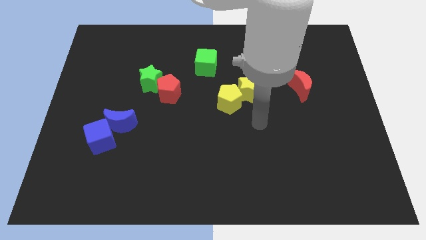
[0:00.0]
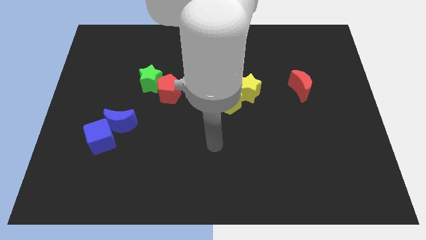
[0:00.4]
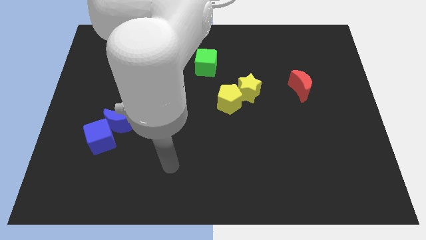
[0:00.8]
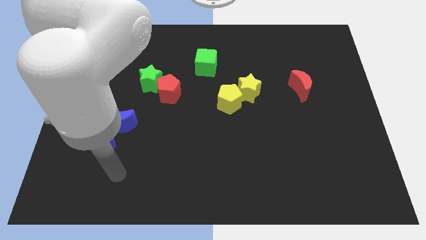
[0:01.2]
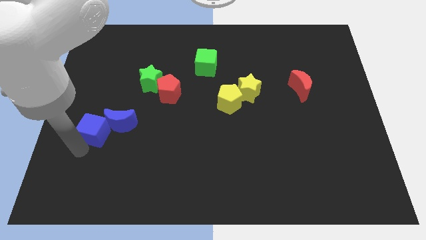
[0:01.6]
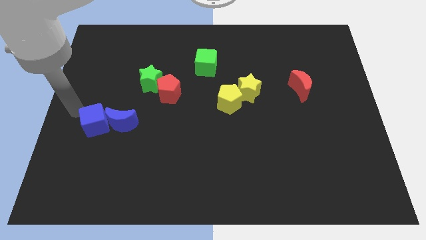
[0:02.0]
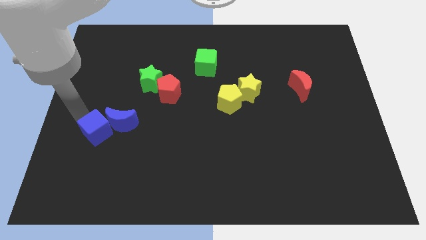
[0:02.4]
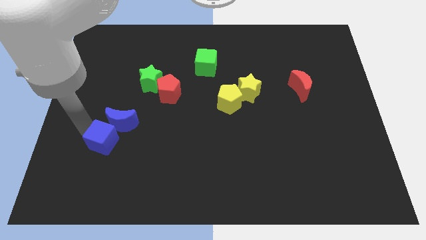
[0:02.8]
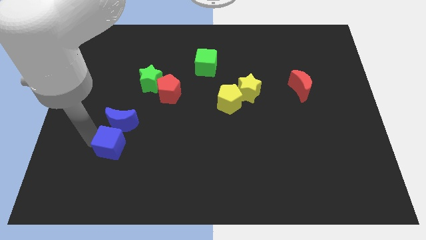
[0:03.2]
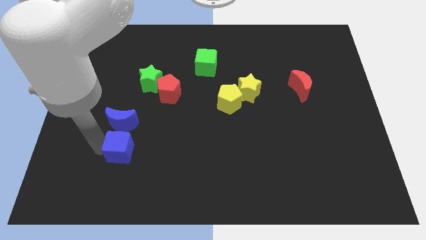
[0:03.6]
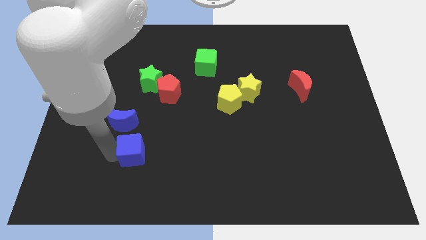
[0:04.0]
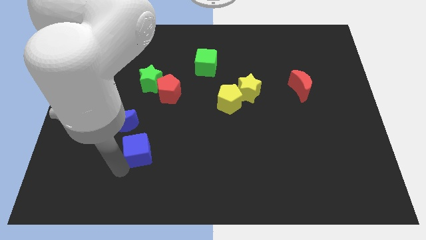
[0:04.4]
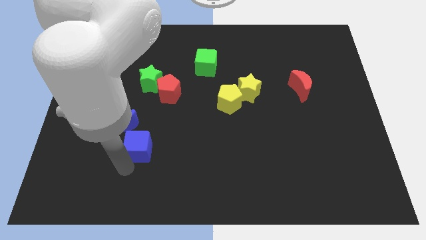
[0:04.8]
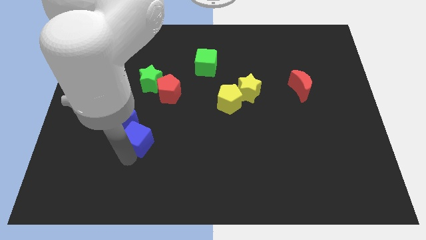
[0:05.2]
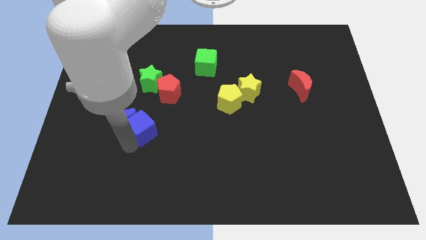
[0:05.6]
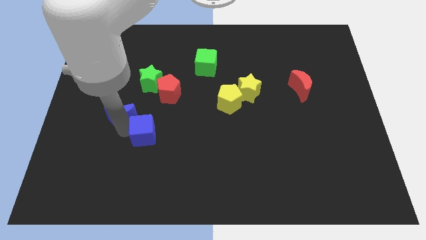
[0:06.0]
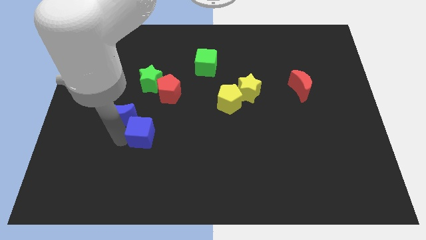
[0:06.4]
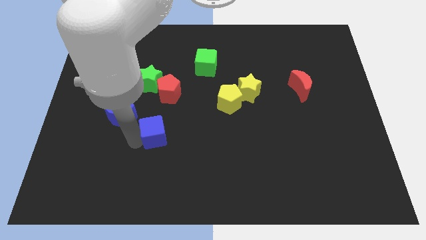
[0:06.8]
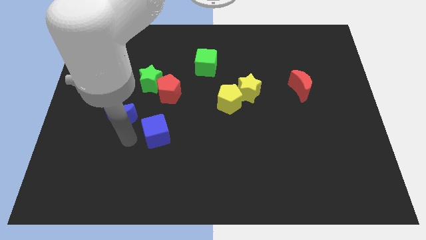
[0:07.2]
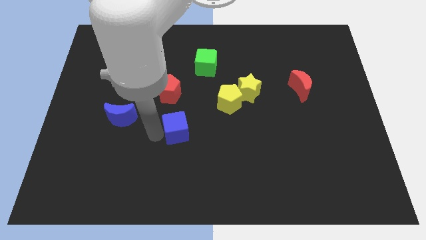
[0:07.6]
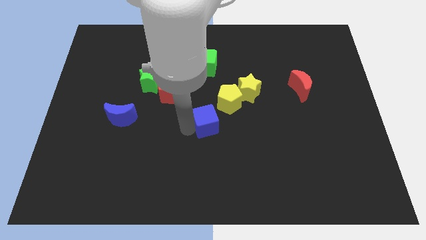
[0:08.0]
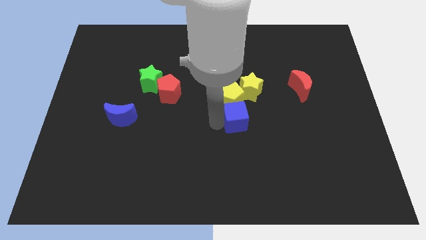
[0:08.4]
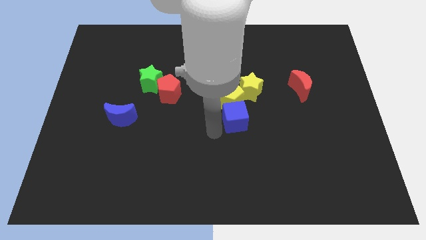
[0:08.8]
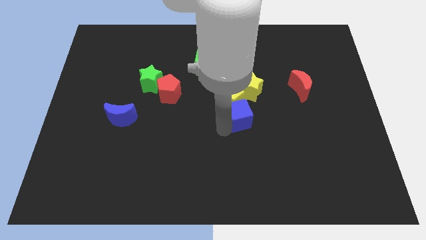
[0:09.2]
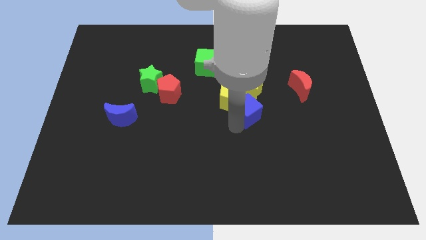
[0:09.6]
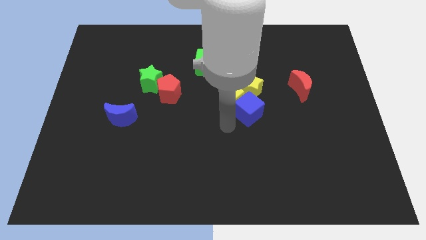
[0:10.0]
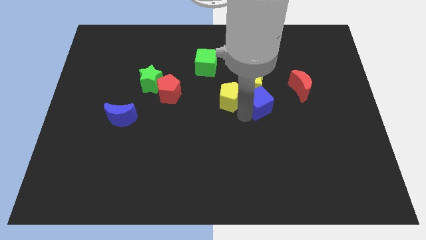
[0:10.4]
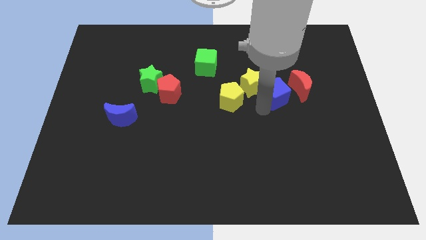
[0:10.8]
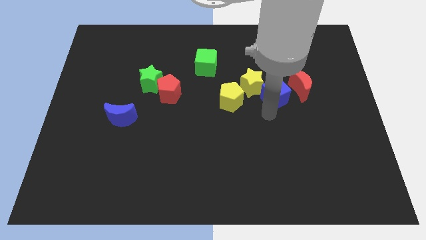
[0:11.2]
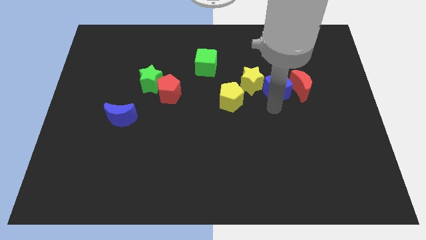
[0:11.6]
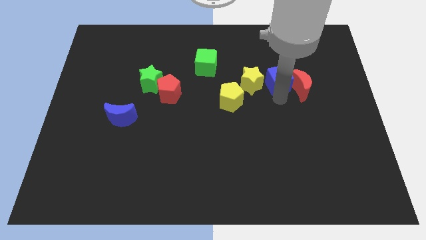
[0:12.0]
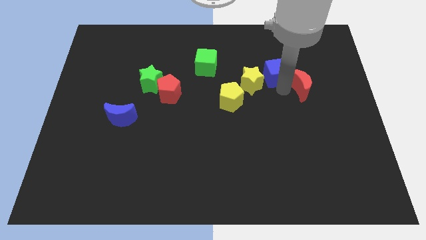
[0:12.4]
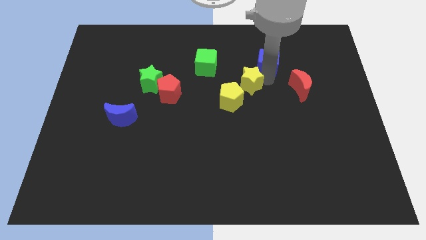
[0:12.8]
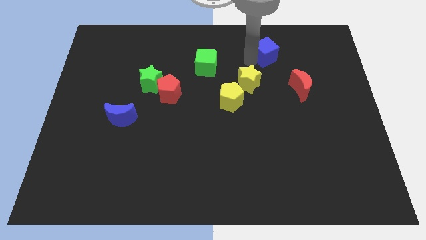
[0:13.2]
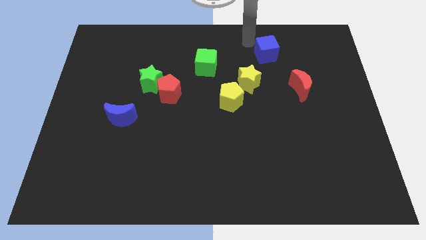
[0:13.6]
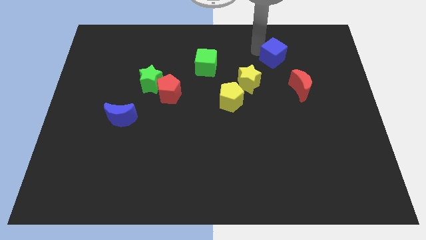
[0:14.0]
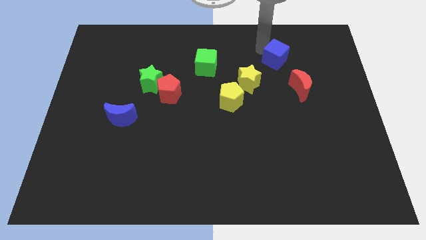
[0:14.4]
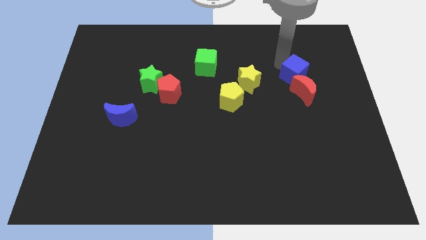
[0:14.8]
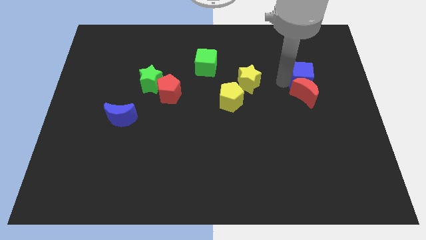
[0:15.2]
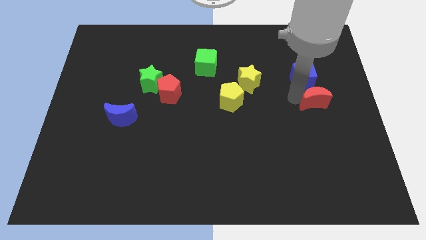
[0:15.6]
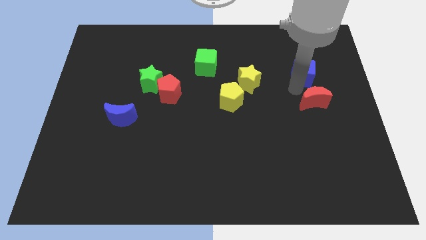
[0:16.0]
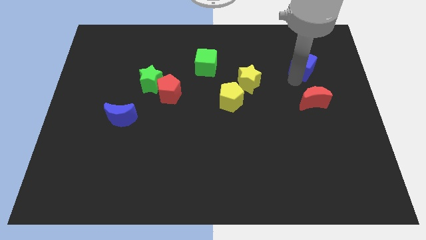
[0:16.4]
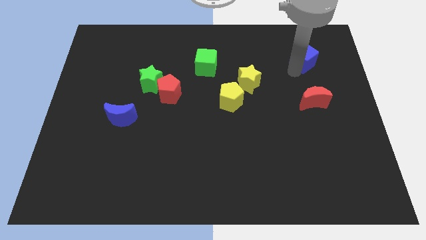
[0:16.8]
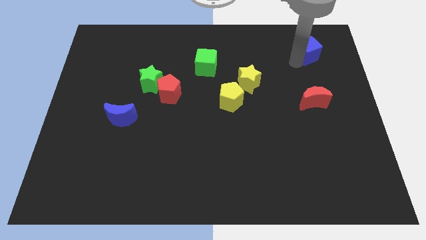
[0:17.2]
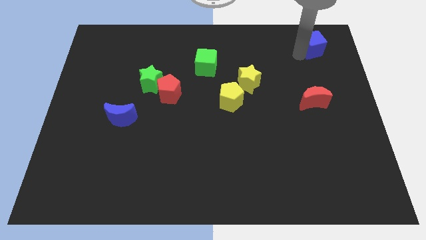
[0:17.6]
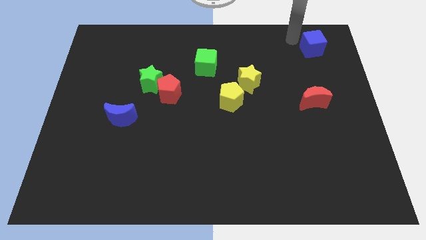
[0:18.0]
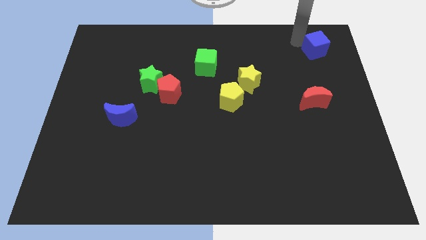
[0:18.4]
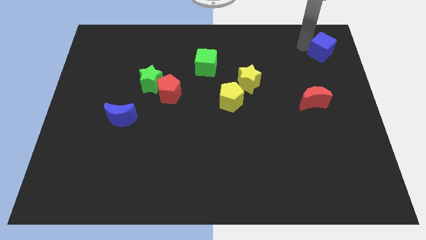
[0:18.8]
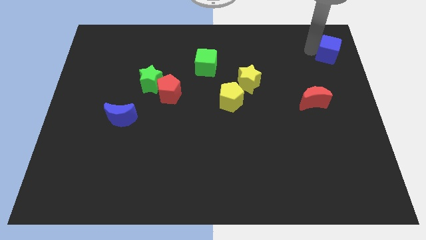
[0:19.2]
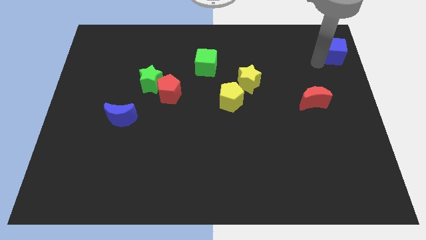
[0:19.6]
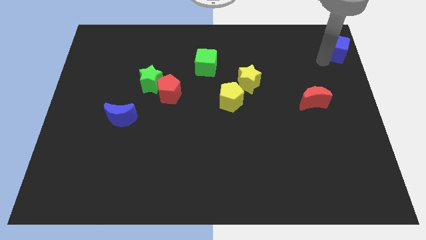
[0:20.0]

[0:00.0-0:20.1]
move the blue cube to the upper right corner

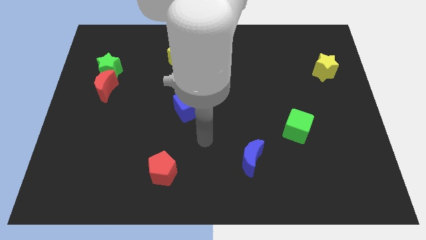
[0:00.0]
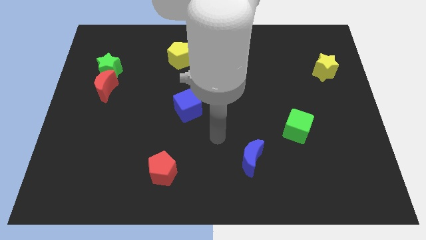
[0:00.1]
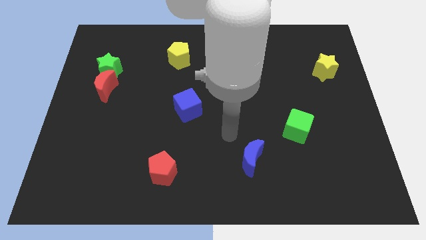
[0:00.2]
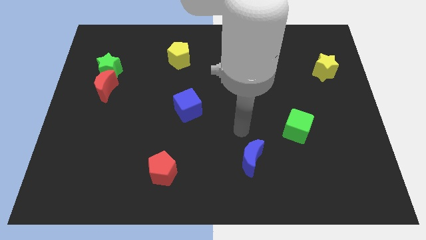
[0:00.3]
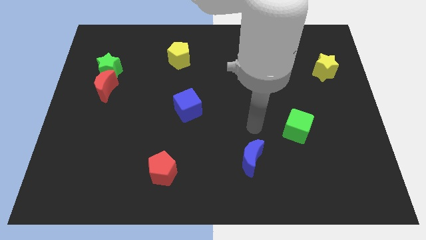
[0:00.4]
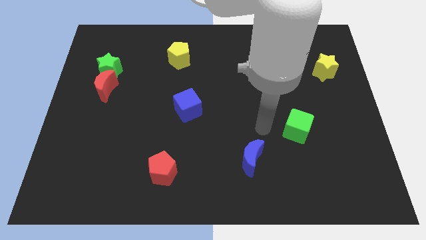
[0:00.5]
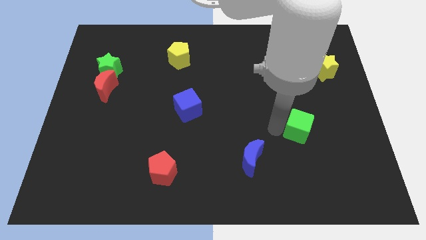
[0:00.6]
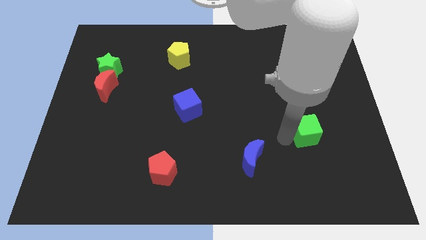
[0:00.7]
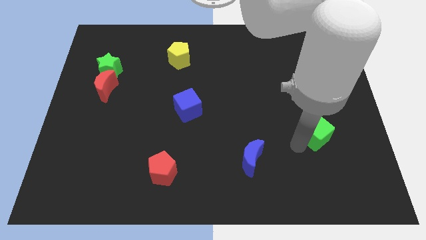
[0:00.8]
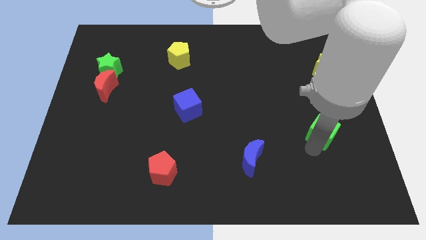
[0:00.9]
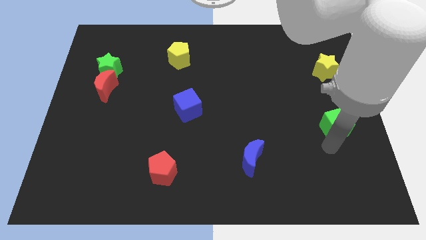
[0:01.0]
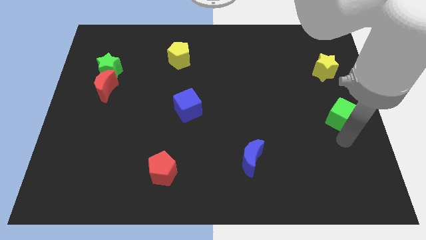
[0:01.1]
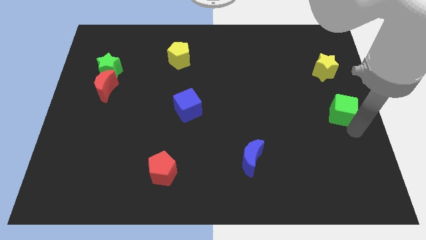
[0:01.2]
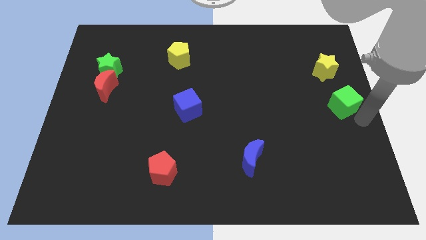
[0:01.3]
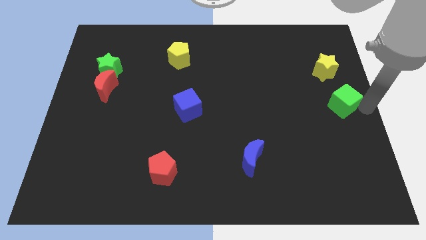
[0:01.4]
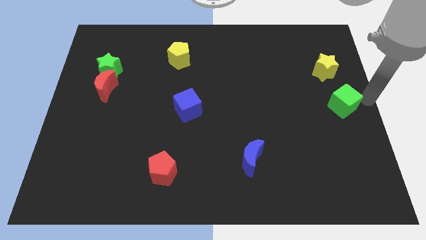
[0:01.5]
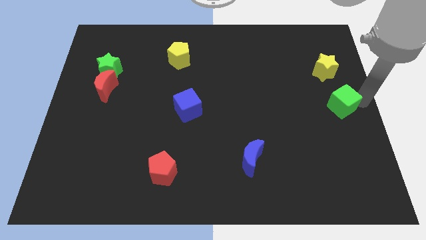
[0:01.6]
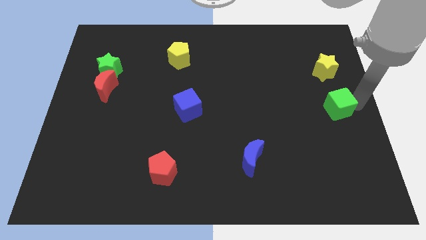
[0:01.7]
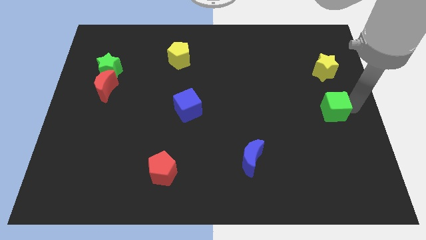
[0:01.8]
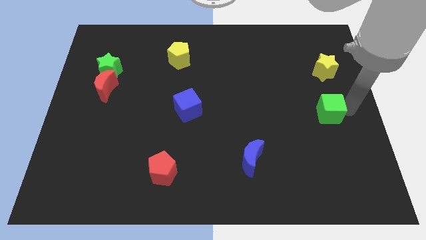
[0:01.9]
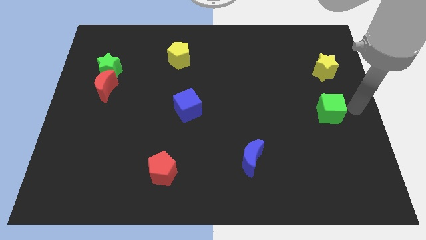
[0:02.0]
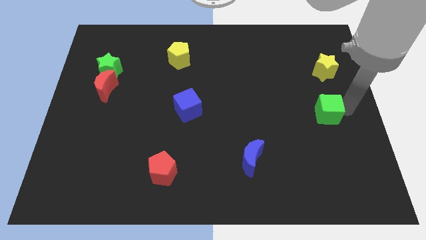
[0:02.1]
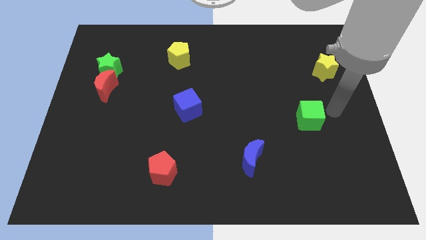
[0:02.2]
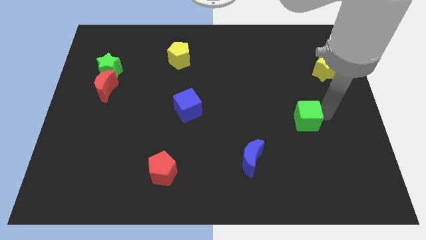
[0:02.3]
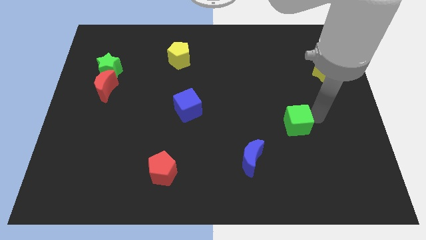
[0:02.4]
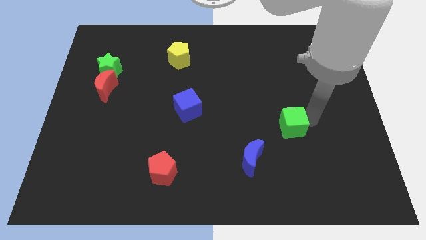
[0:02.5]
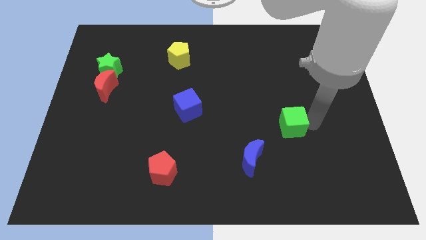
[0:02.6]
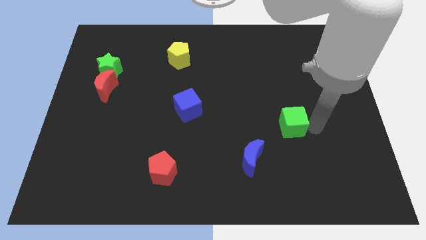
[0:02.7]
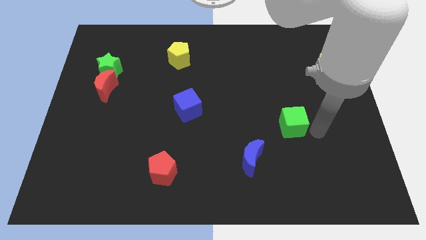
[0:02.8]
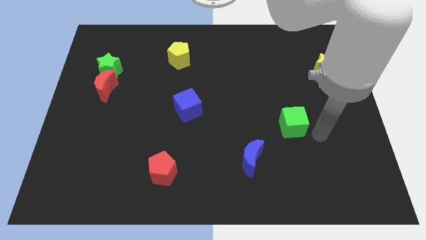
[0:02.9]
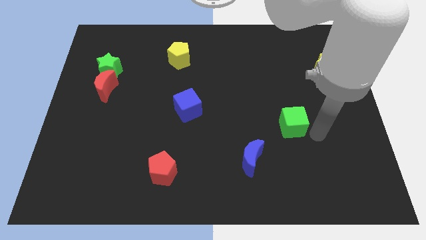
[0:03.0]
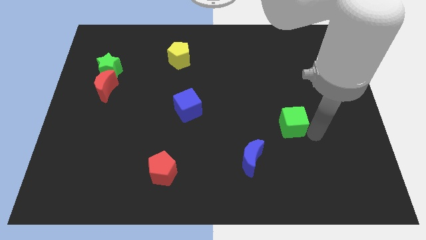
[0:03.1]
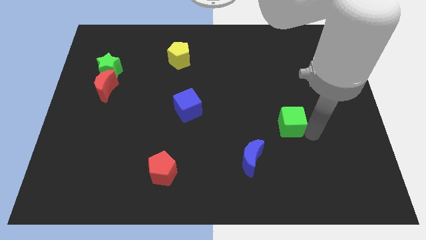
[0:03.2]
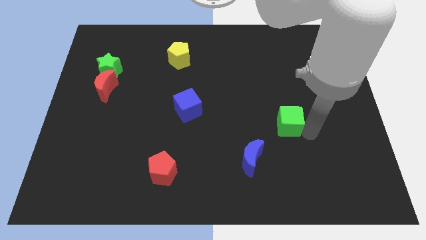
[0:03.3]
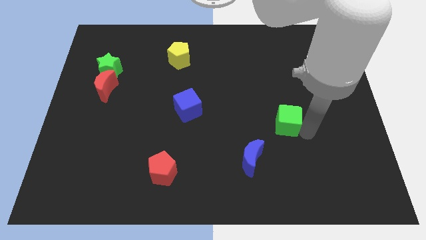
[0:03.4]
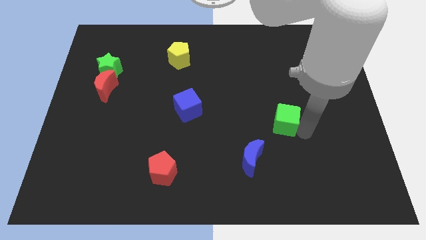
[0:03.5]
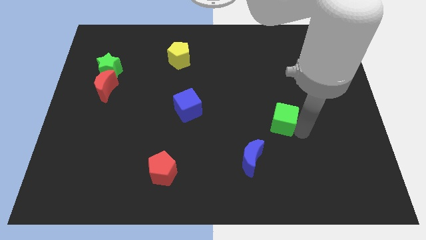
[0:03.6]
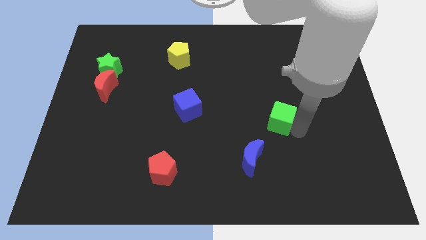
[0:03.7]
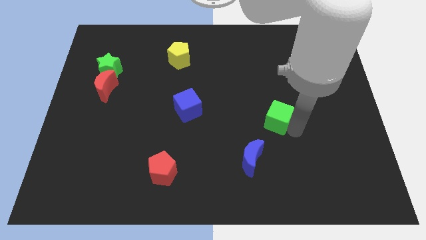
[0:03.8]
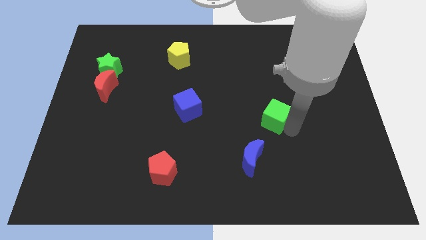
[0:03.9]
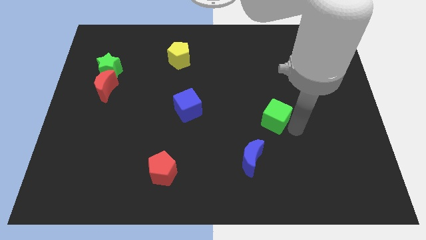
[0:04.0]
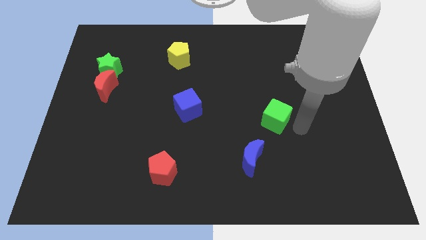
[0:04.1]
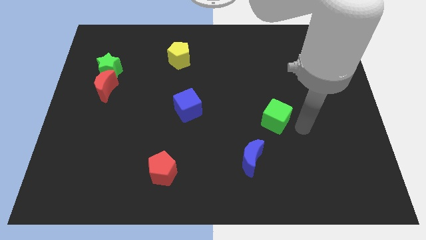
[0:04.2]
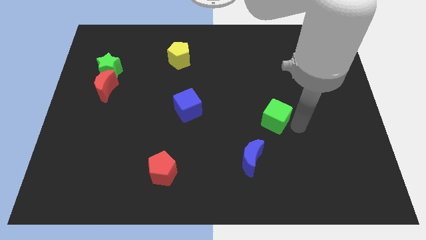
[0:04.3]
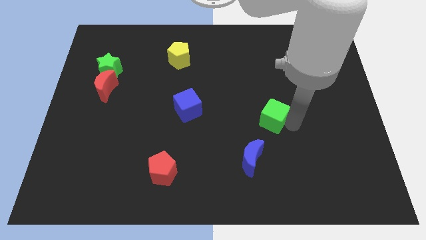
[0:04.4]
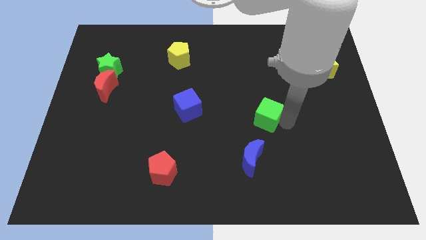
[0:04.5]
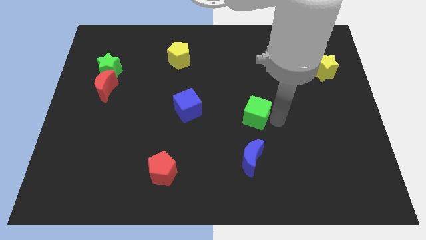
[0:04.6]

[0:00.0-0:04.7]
put the green cube to the middle of the board
